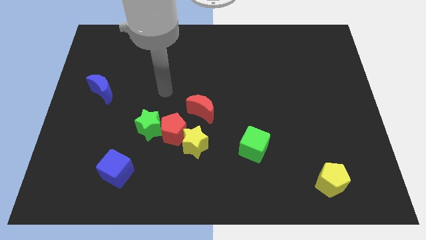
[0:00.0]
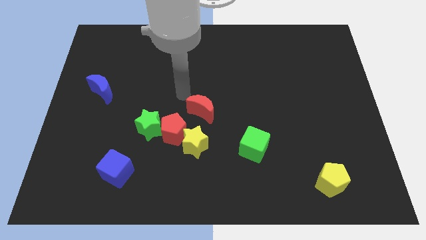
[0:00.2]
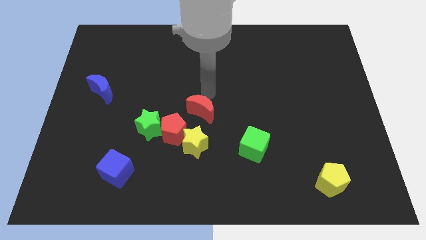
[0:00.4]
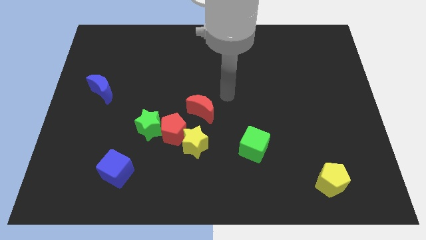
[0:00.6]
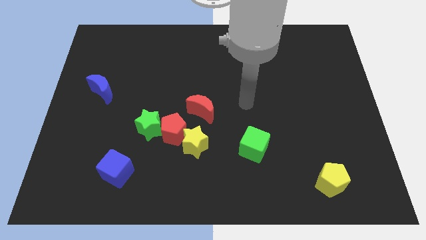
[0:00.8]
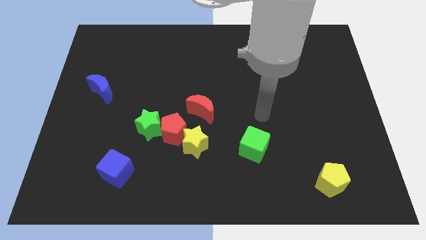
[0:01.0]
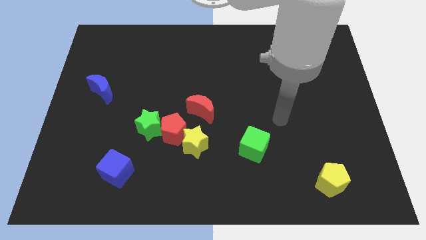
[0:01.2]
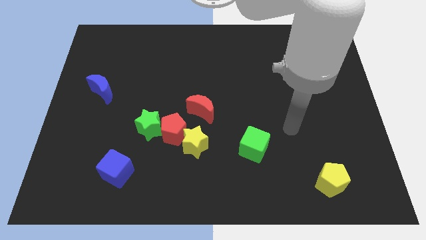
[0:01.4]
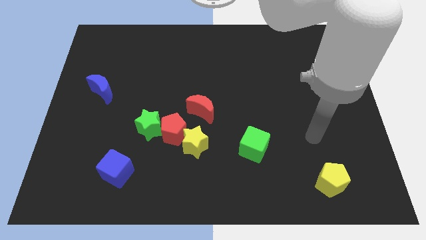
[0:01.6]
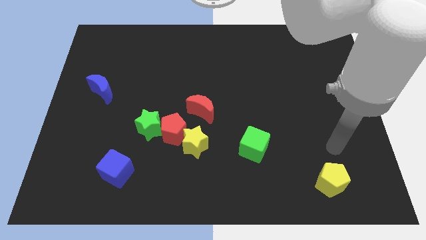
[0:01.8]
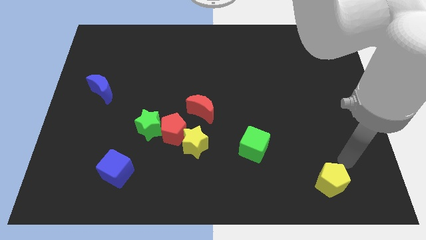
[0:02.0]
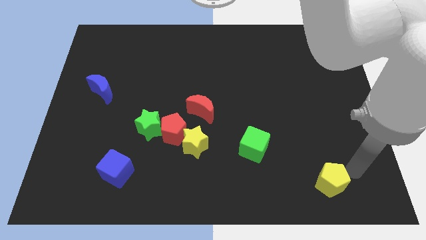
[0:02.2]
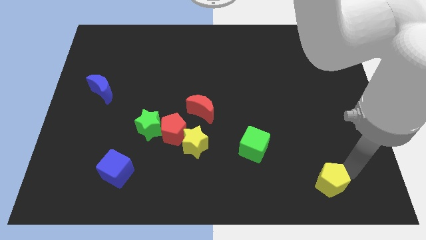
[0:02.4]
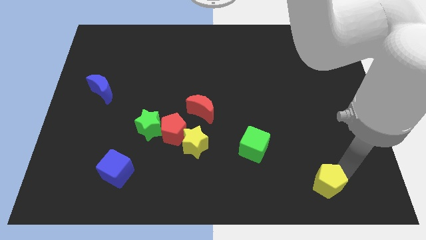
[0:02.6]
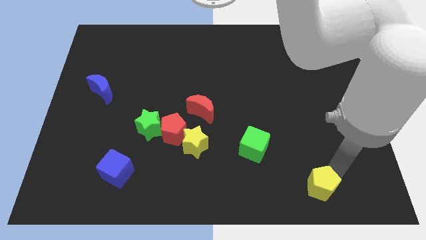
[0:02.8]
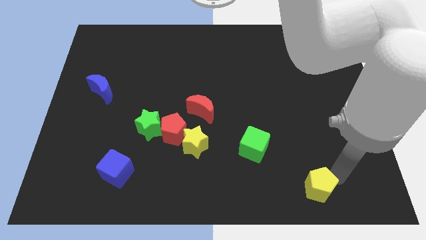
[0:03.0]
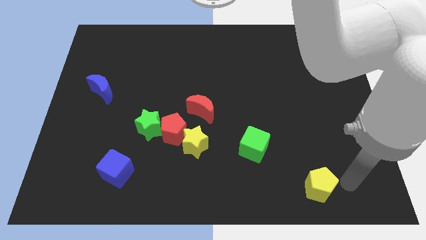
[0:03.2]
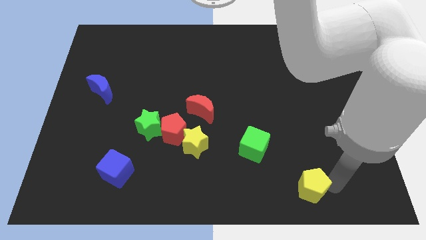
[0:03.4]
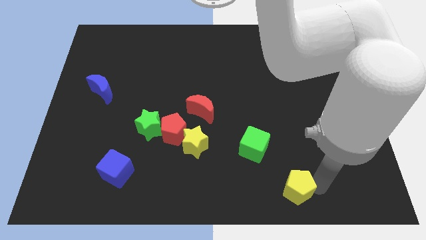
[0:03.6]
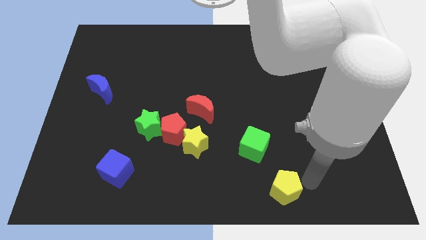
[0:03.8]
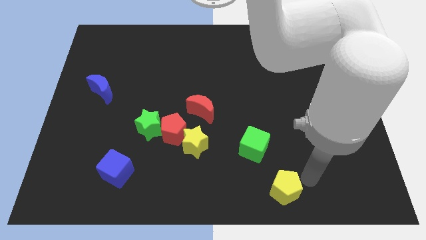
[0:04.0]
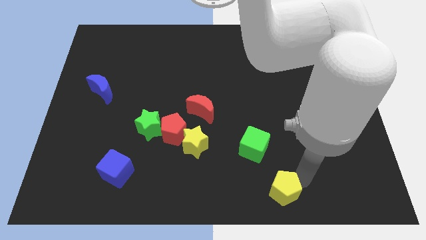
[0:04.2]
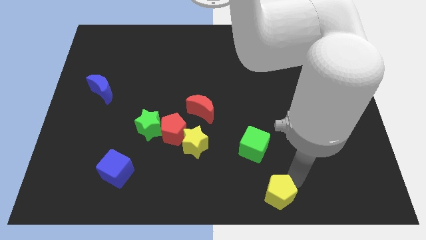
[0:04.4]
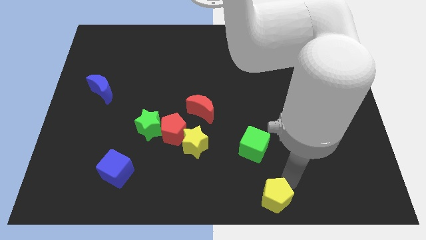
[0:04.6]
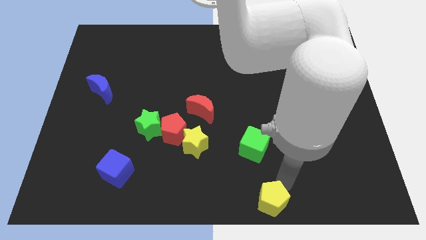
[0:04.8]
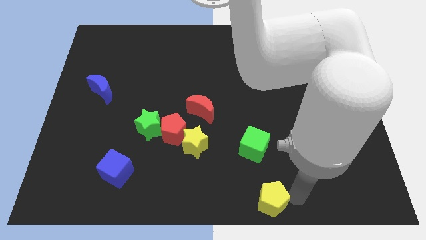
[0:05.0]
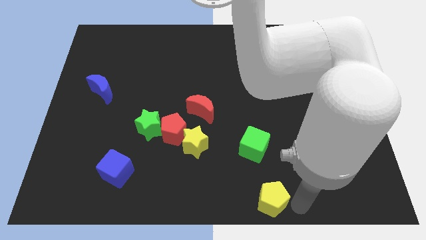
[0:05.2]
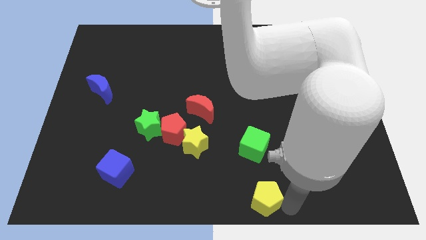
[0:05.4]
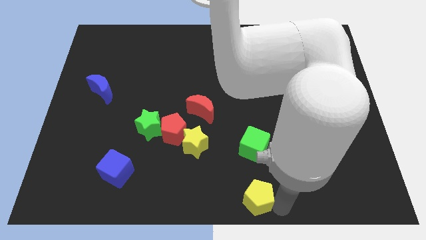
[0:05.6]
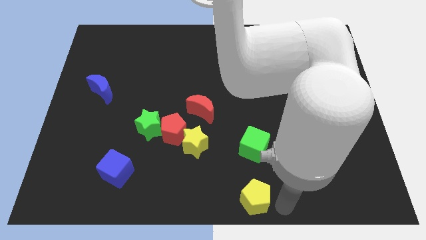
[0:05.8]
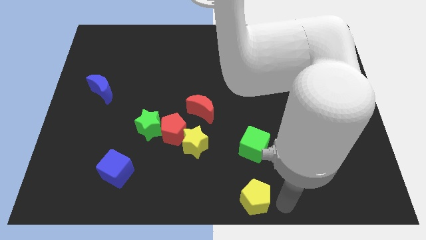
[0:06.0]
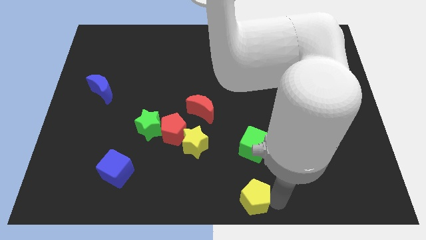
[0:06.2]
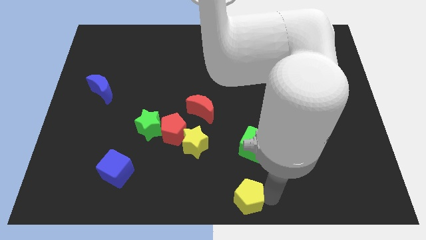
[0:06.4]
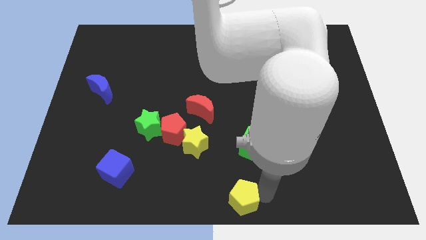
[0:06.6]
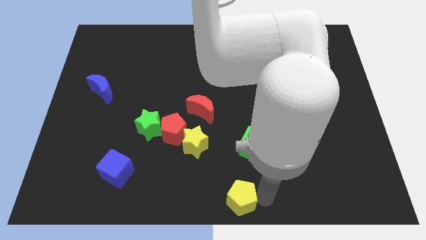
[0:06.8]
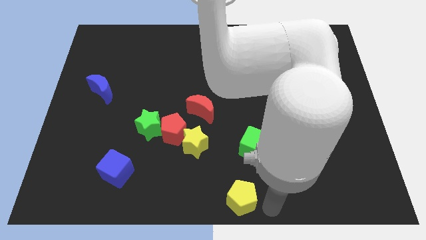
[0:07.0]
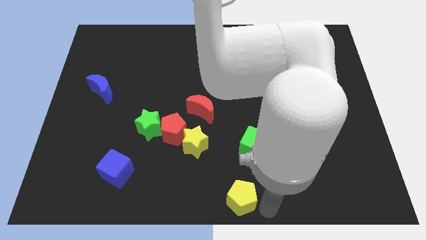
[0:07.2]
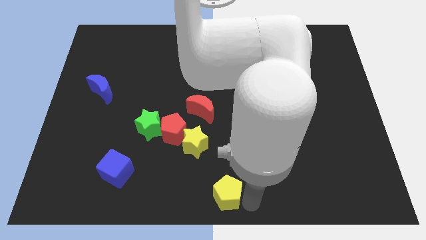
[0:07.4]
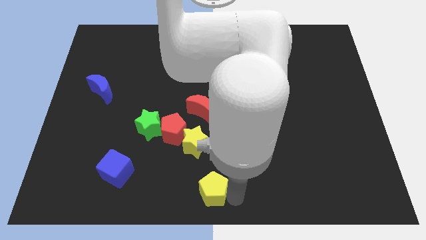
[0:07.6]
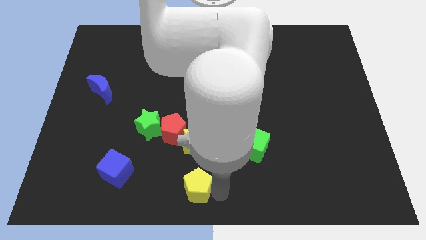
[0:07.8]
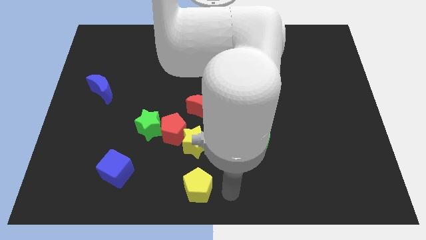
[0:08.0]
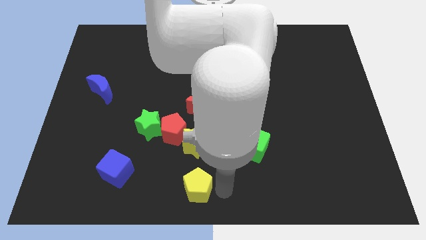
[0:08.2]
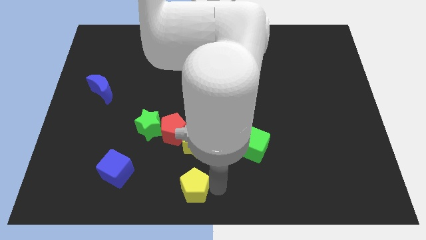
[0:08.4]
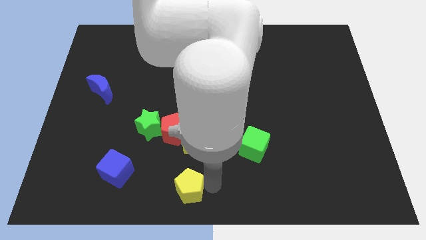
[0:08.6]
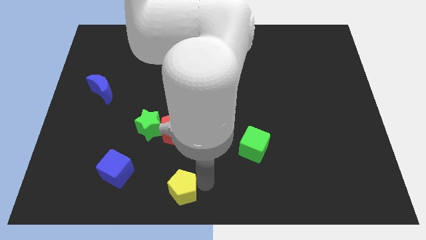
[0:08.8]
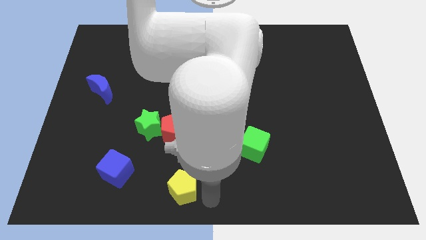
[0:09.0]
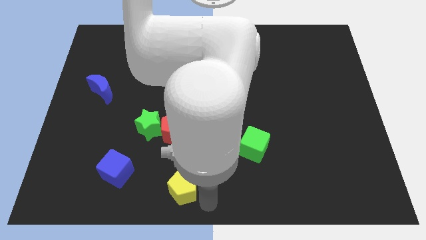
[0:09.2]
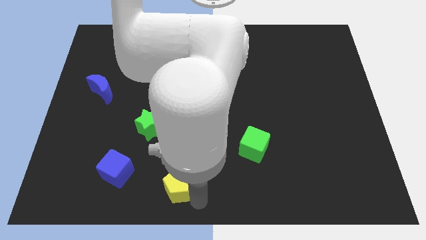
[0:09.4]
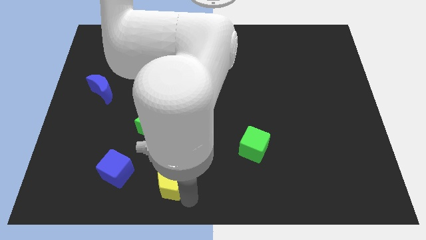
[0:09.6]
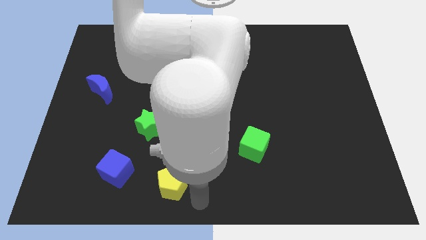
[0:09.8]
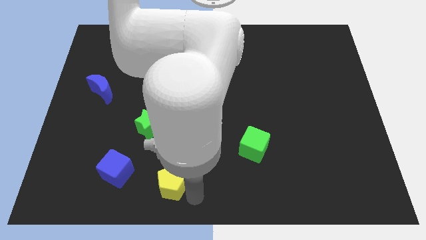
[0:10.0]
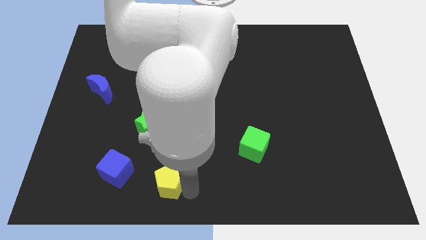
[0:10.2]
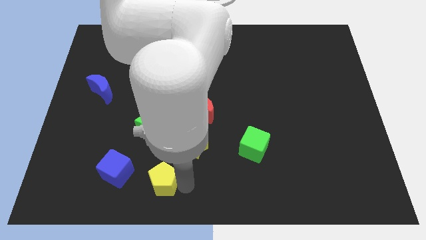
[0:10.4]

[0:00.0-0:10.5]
put the yellow pentagon to the bottom of the green star

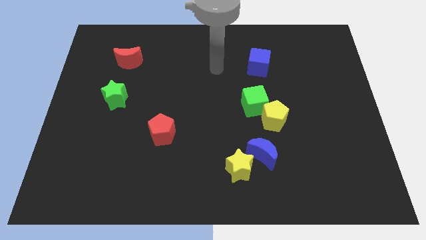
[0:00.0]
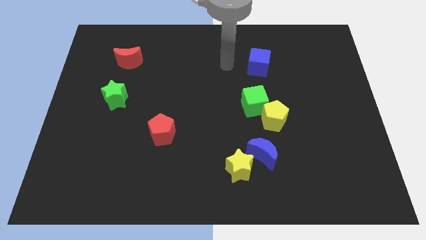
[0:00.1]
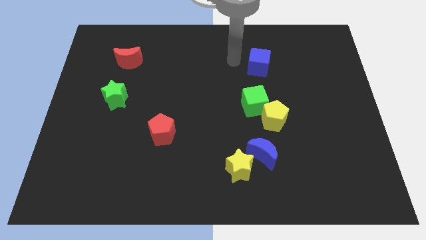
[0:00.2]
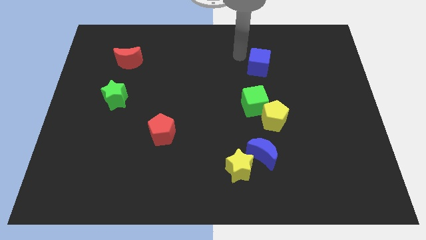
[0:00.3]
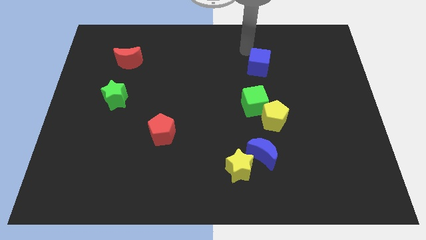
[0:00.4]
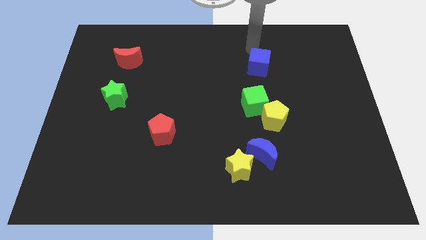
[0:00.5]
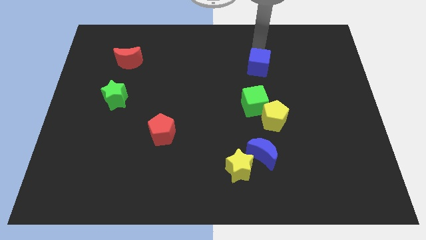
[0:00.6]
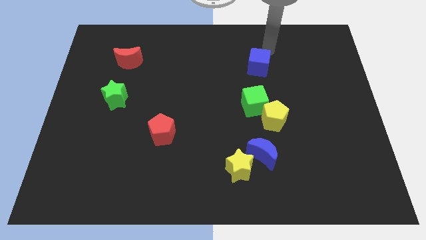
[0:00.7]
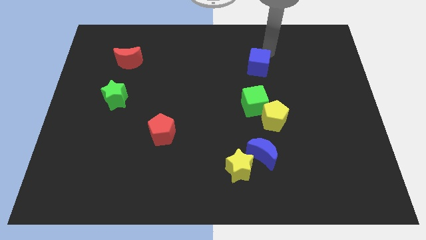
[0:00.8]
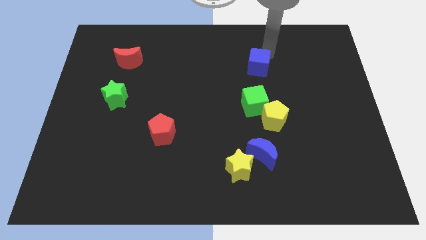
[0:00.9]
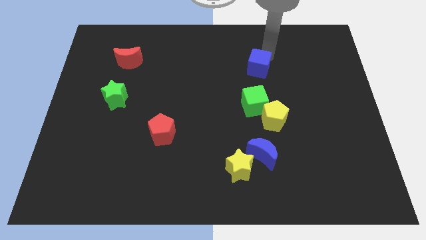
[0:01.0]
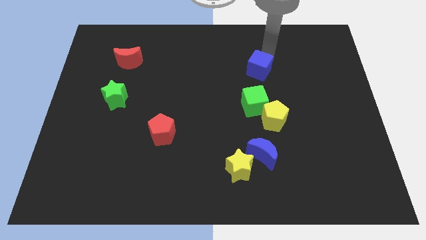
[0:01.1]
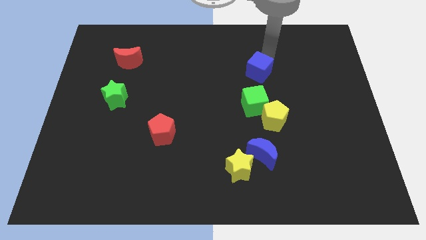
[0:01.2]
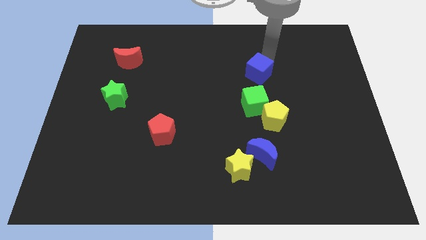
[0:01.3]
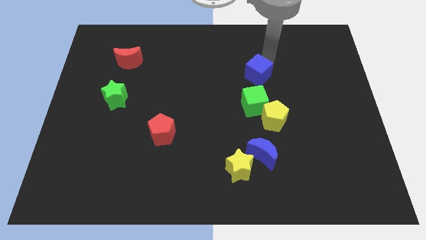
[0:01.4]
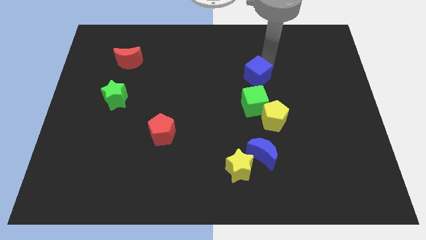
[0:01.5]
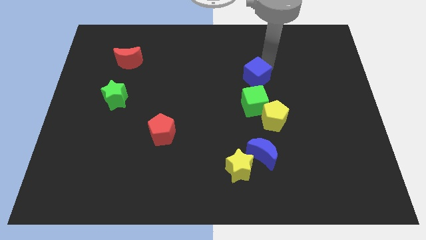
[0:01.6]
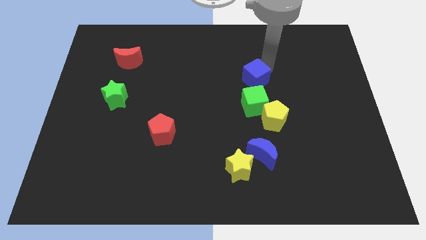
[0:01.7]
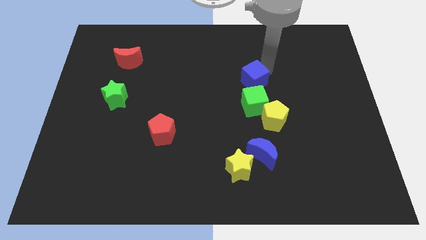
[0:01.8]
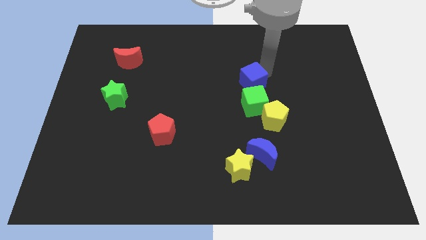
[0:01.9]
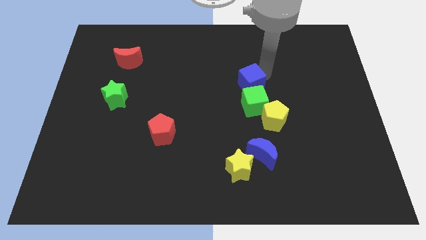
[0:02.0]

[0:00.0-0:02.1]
put the blue cube to the top left side of the green cube
